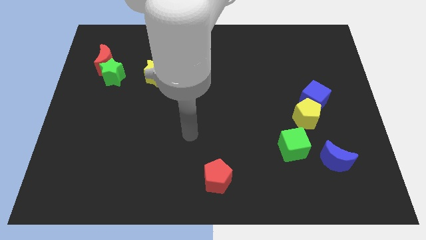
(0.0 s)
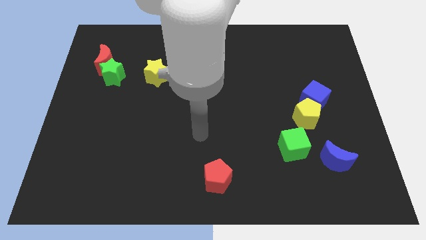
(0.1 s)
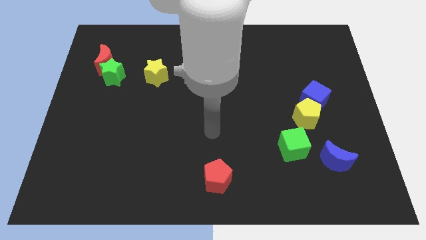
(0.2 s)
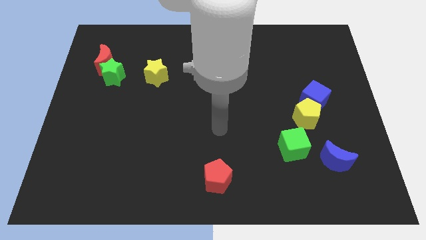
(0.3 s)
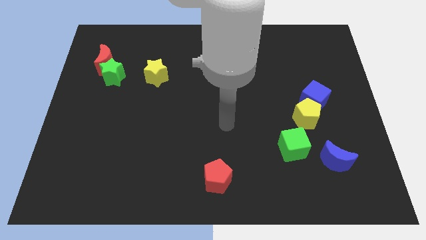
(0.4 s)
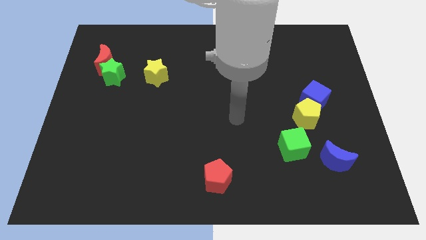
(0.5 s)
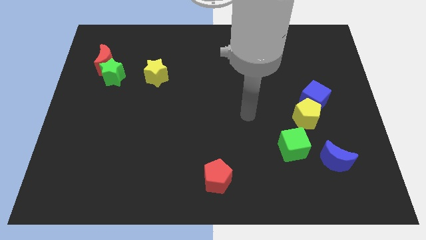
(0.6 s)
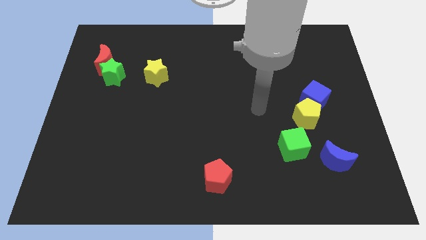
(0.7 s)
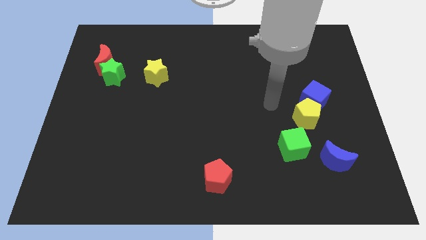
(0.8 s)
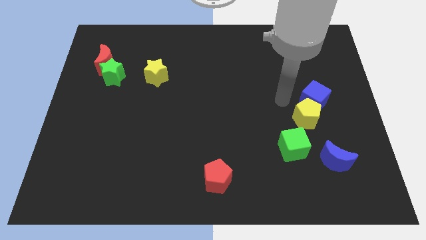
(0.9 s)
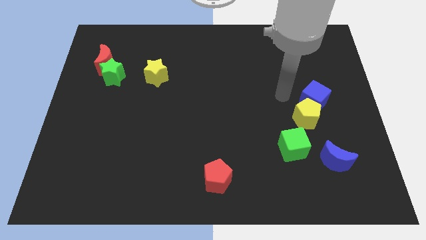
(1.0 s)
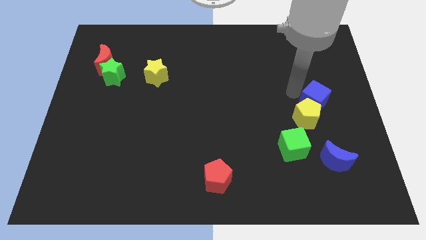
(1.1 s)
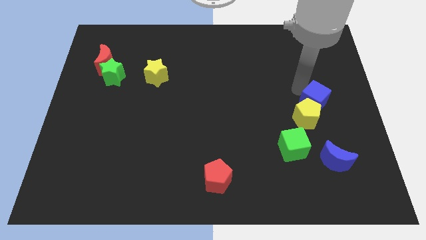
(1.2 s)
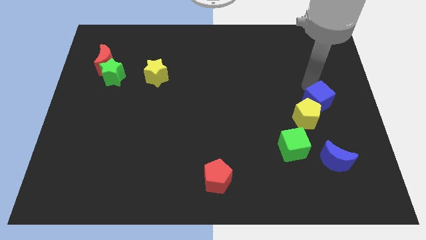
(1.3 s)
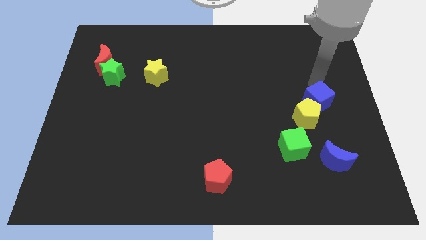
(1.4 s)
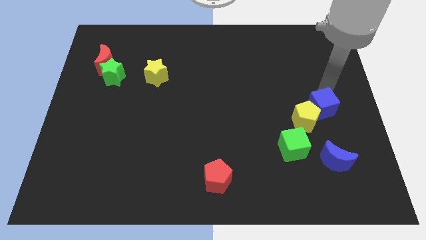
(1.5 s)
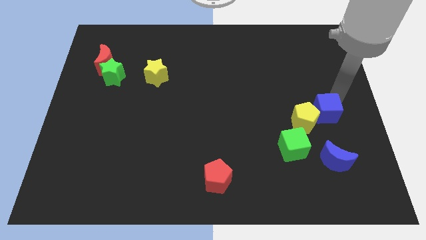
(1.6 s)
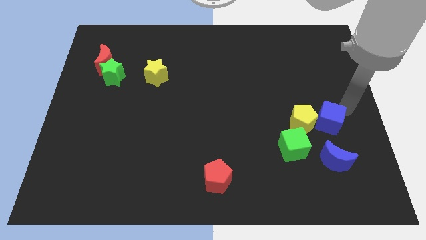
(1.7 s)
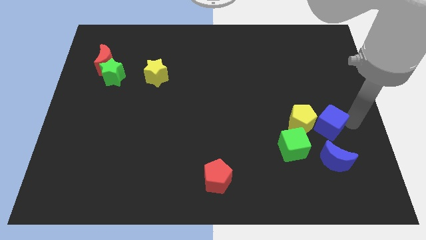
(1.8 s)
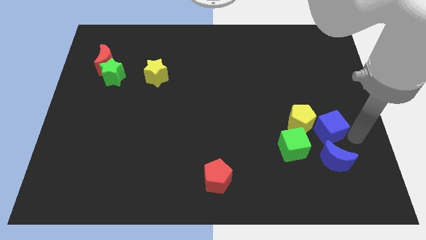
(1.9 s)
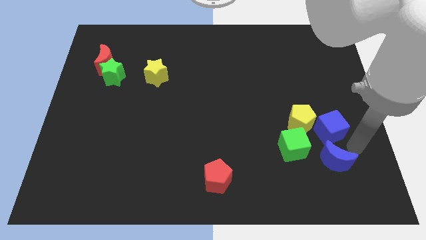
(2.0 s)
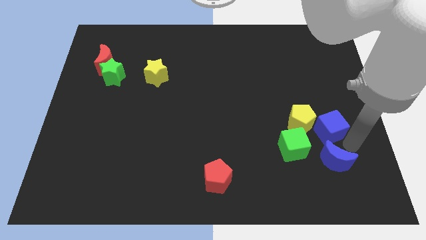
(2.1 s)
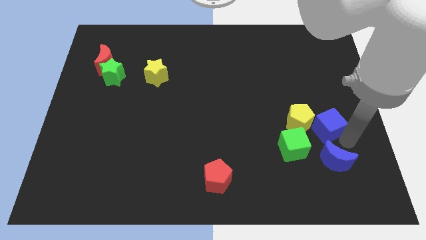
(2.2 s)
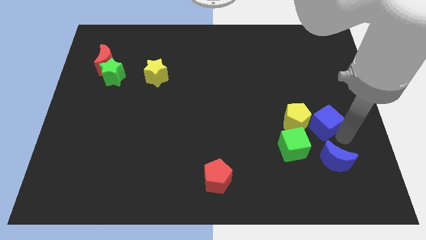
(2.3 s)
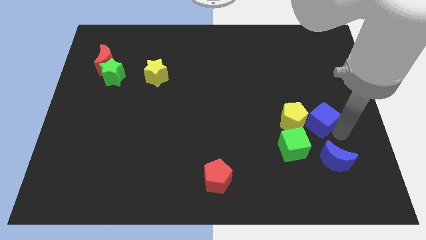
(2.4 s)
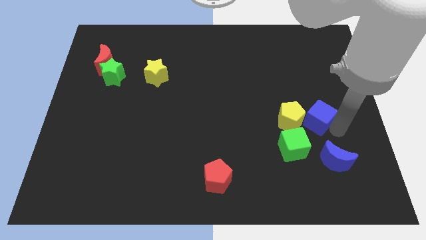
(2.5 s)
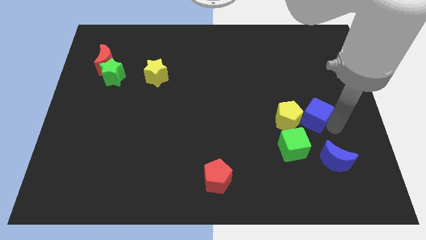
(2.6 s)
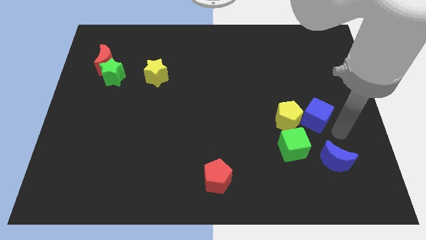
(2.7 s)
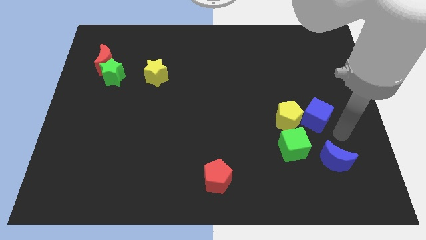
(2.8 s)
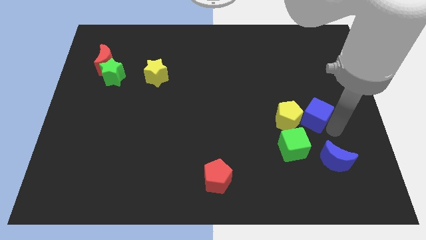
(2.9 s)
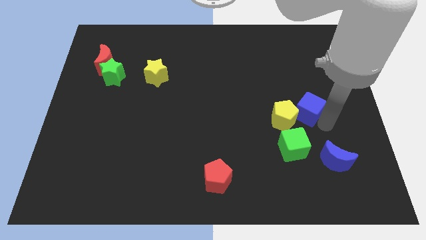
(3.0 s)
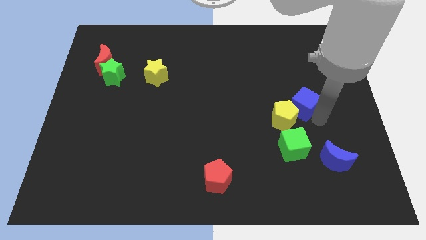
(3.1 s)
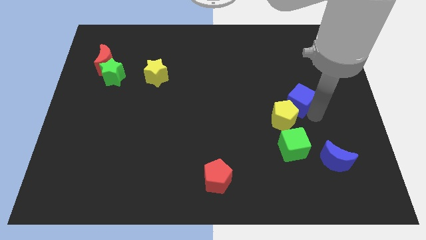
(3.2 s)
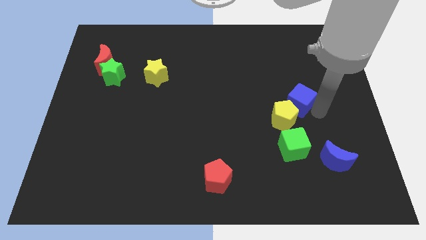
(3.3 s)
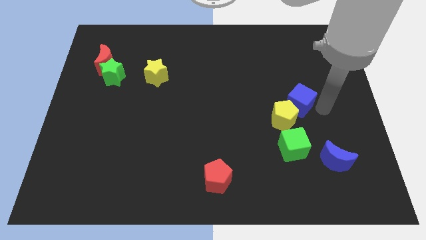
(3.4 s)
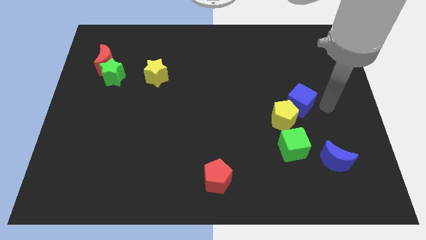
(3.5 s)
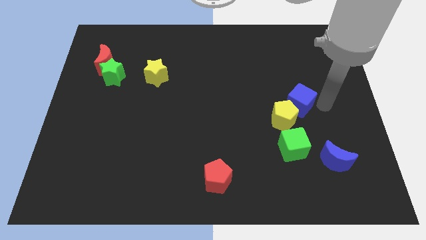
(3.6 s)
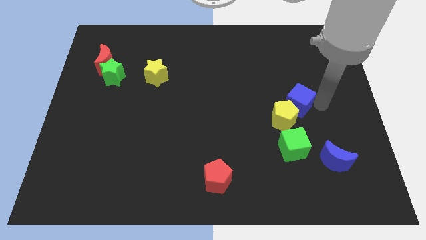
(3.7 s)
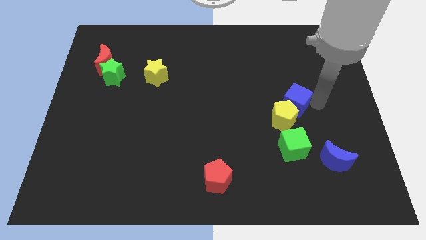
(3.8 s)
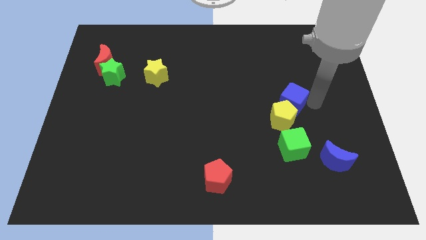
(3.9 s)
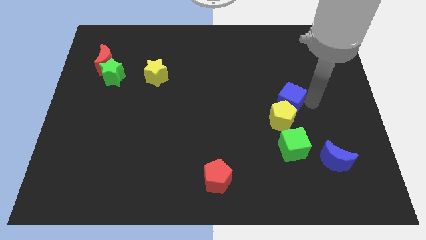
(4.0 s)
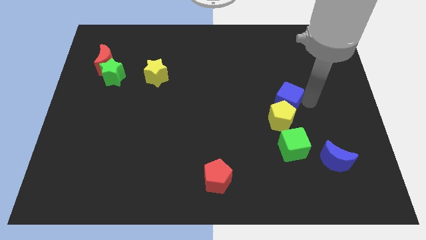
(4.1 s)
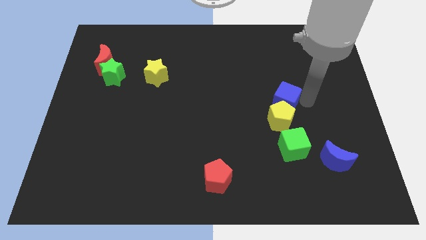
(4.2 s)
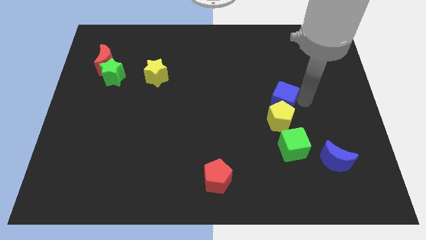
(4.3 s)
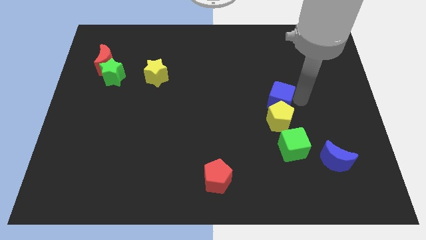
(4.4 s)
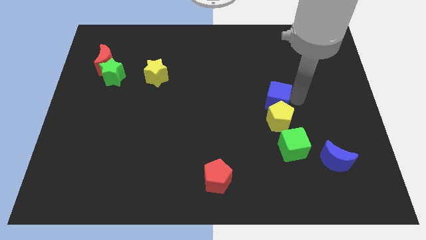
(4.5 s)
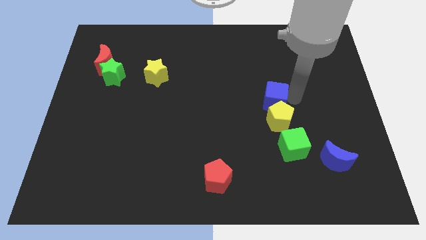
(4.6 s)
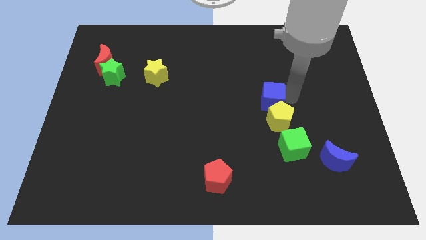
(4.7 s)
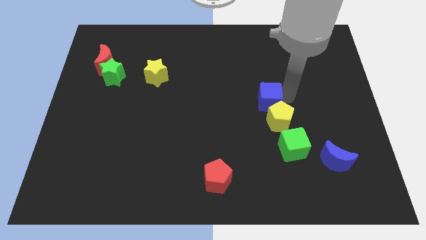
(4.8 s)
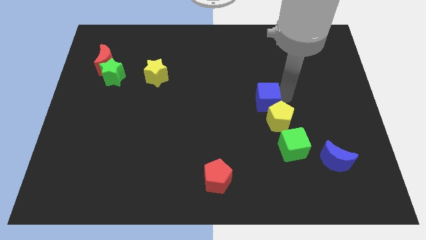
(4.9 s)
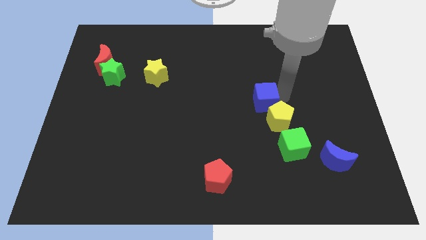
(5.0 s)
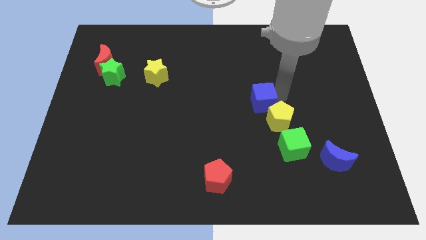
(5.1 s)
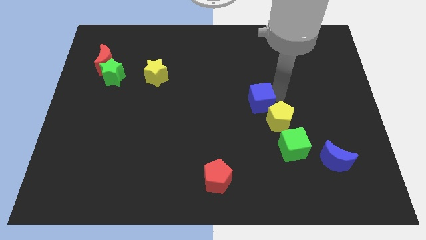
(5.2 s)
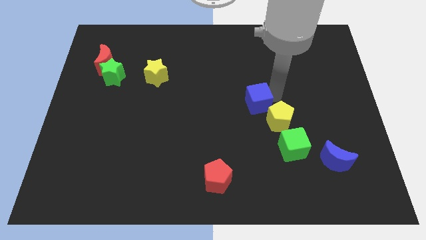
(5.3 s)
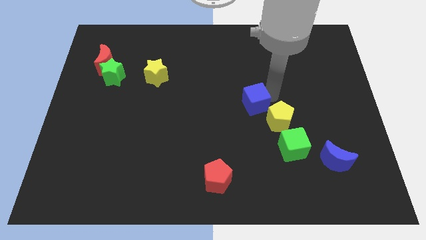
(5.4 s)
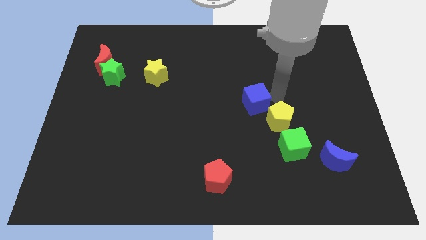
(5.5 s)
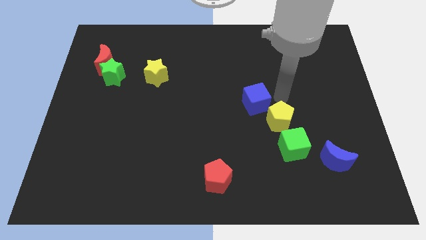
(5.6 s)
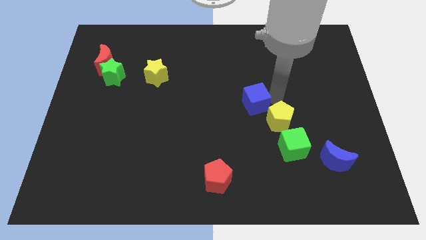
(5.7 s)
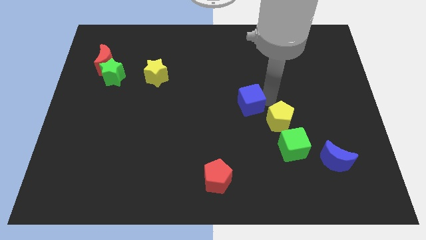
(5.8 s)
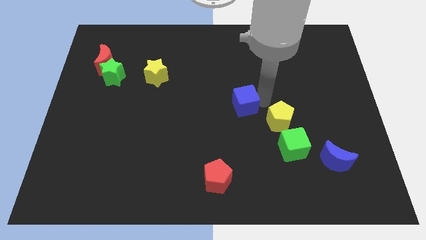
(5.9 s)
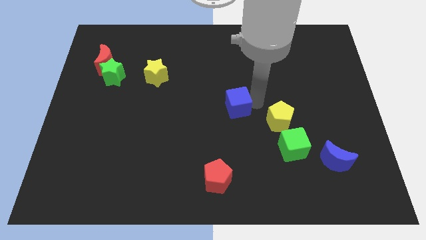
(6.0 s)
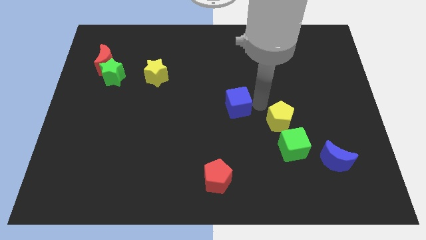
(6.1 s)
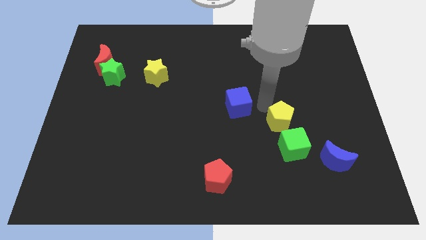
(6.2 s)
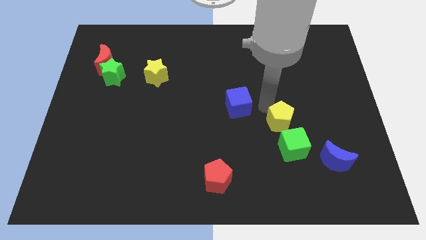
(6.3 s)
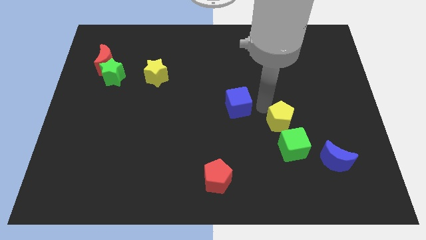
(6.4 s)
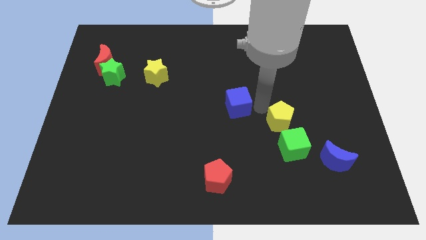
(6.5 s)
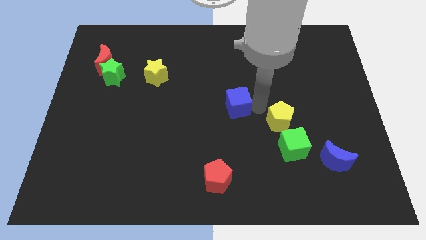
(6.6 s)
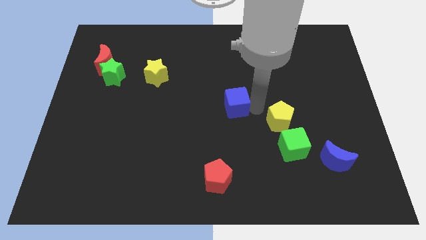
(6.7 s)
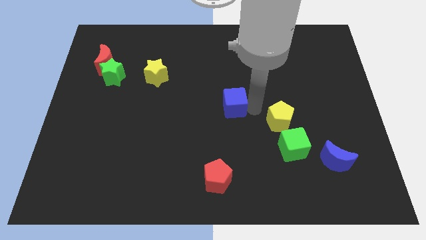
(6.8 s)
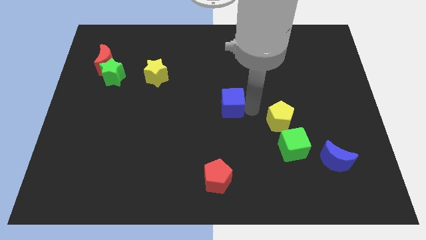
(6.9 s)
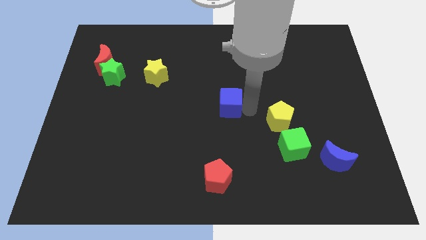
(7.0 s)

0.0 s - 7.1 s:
move the blue cube to the left

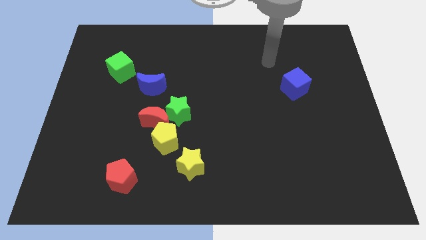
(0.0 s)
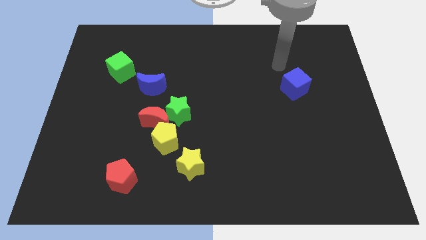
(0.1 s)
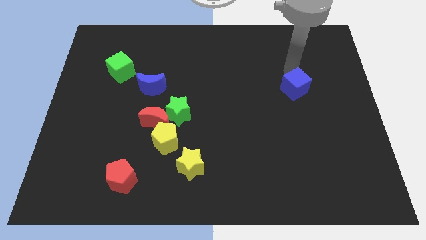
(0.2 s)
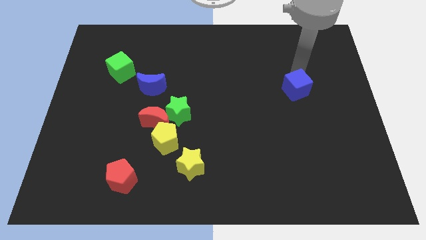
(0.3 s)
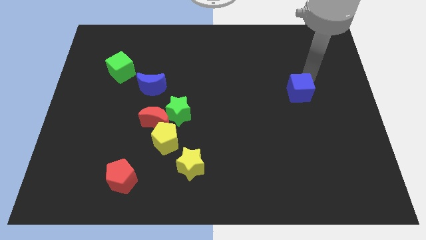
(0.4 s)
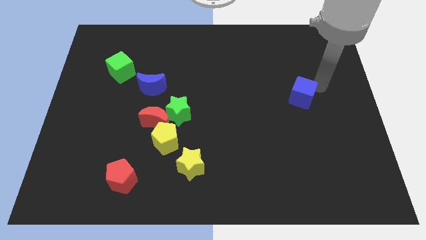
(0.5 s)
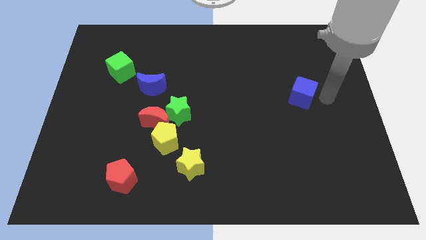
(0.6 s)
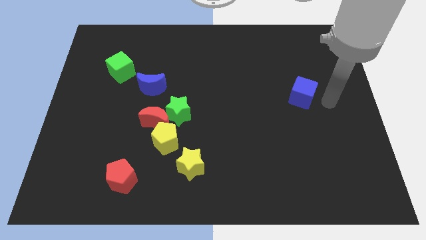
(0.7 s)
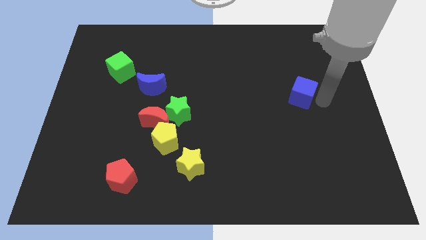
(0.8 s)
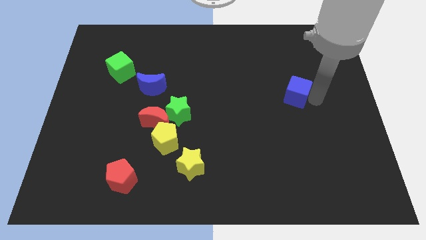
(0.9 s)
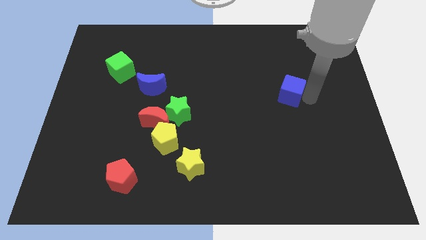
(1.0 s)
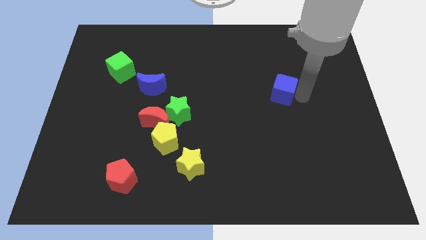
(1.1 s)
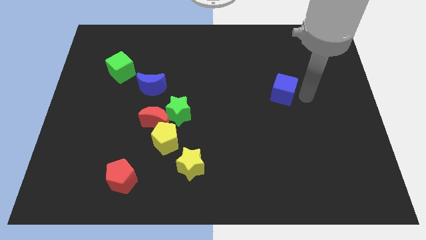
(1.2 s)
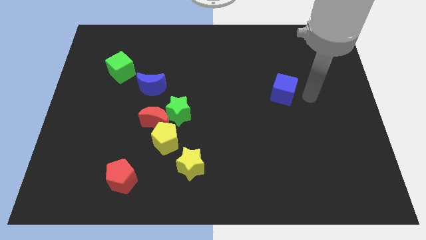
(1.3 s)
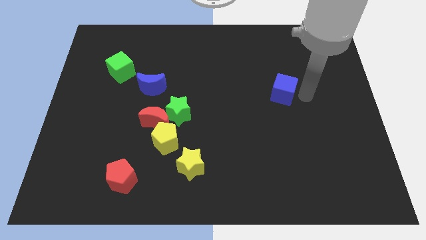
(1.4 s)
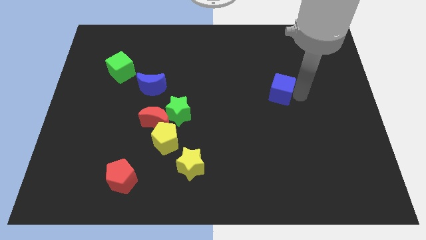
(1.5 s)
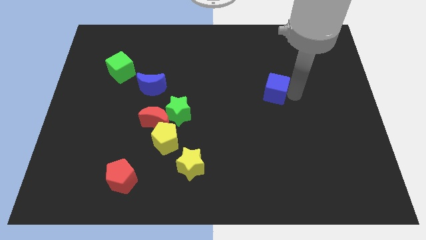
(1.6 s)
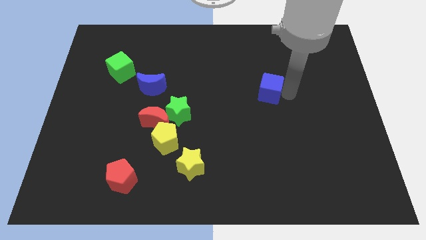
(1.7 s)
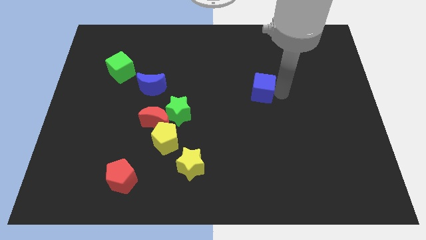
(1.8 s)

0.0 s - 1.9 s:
slightly push the blue cube to the left
